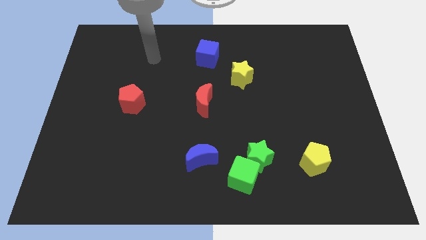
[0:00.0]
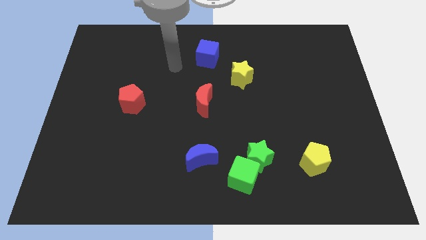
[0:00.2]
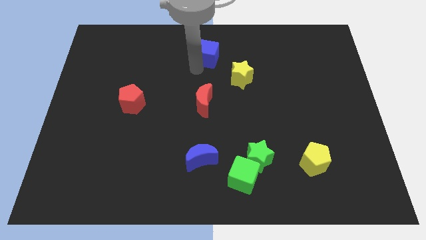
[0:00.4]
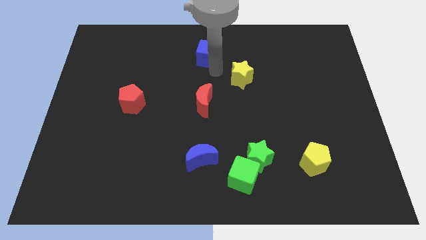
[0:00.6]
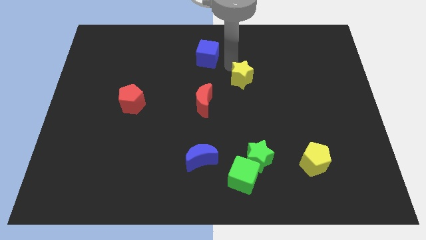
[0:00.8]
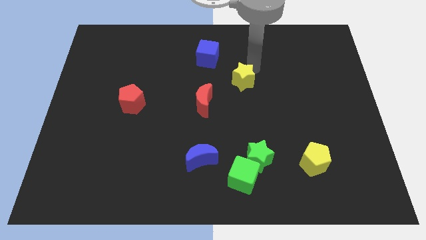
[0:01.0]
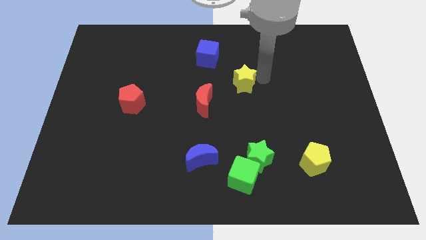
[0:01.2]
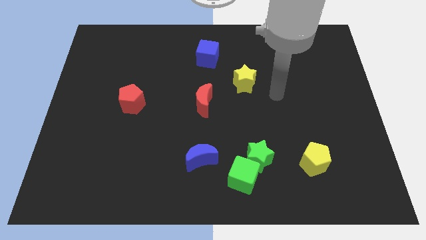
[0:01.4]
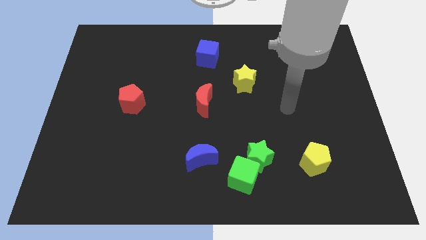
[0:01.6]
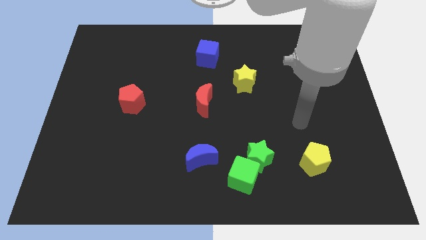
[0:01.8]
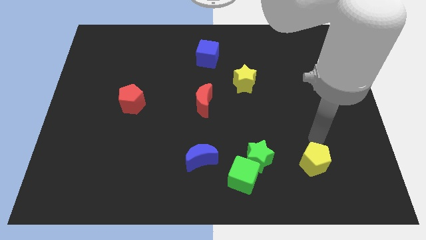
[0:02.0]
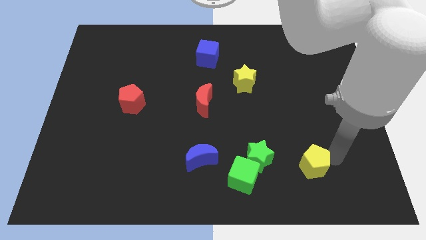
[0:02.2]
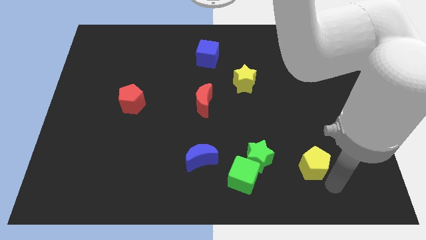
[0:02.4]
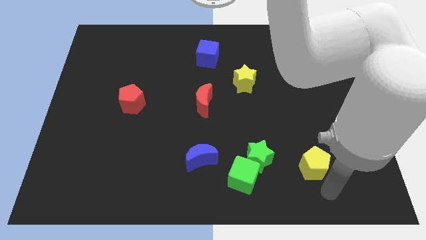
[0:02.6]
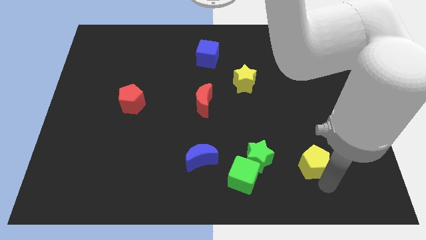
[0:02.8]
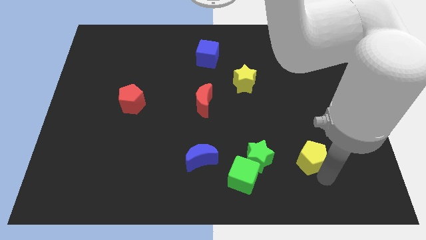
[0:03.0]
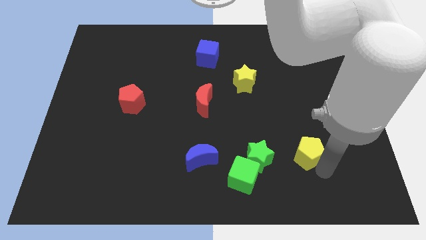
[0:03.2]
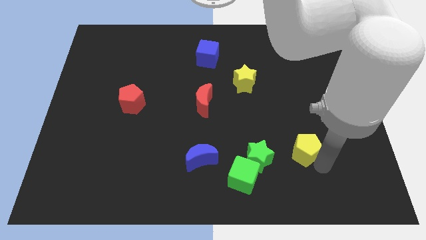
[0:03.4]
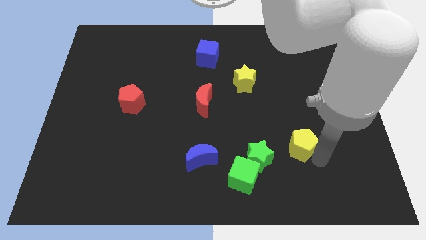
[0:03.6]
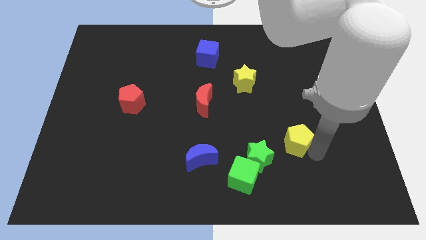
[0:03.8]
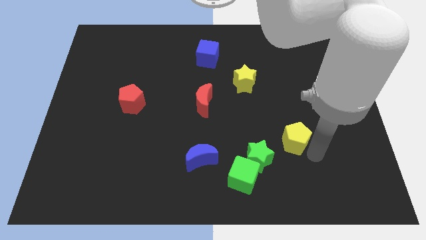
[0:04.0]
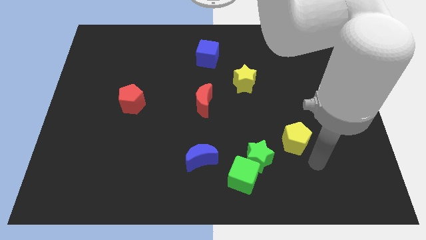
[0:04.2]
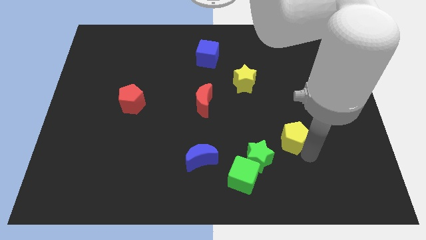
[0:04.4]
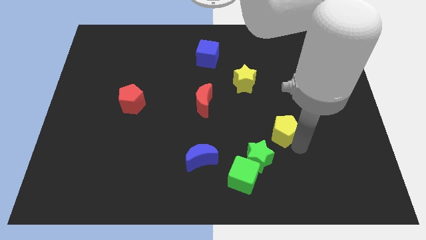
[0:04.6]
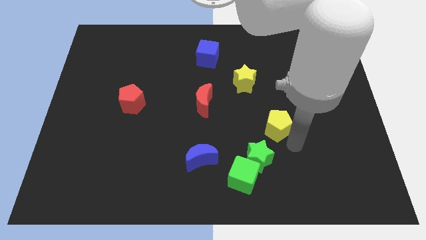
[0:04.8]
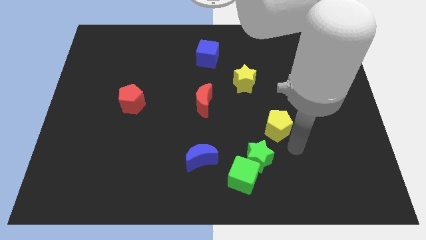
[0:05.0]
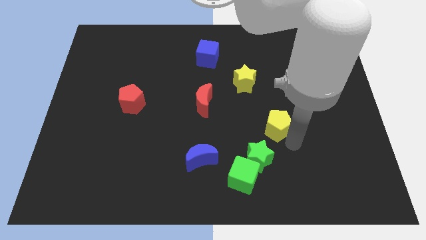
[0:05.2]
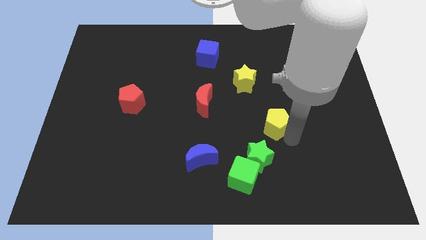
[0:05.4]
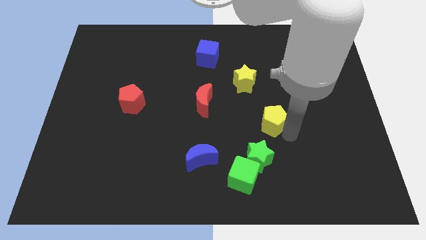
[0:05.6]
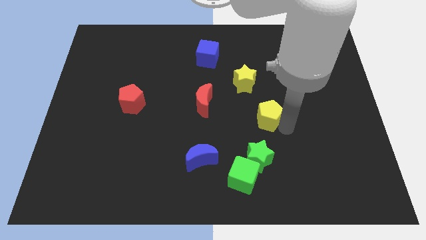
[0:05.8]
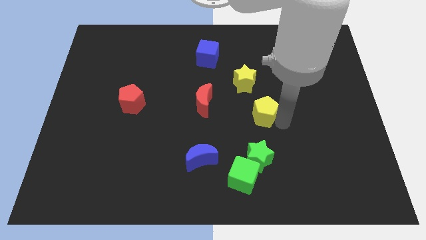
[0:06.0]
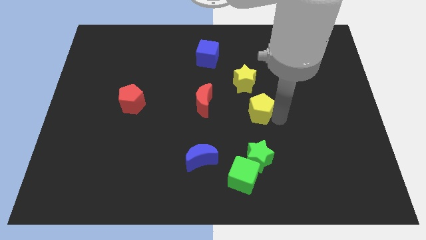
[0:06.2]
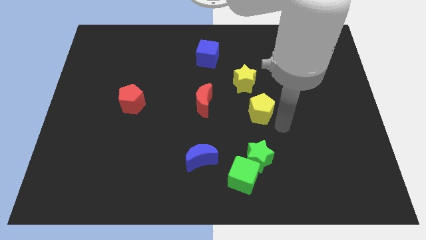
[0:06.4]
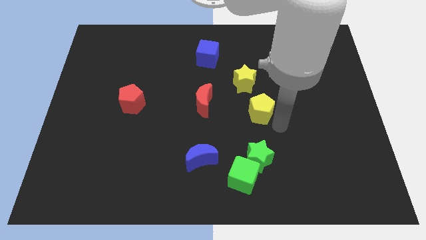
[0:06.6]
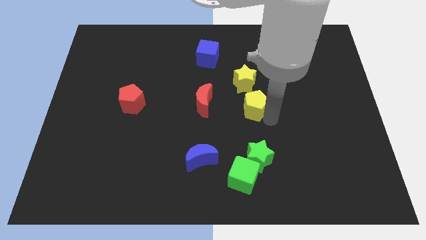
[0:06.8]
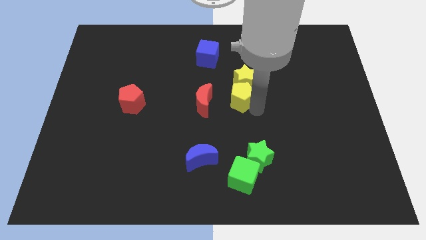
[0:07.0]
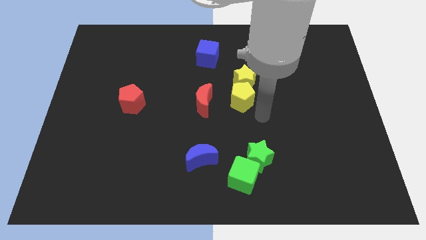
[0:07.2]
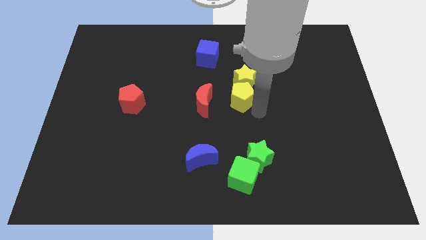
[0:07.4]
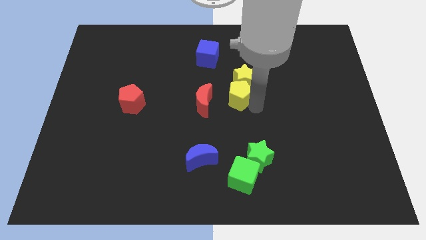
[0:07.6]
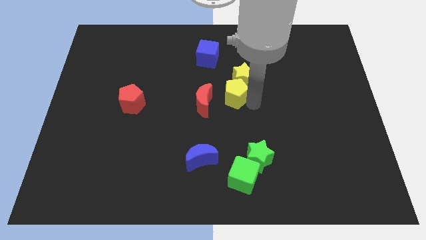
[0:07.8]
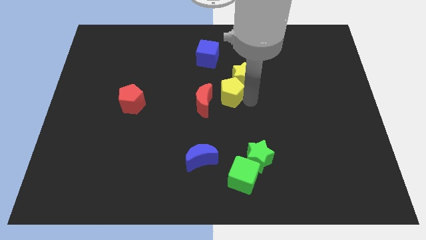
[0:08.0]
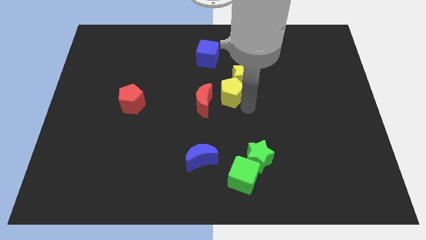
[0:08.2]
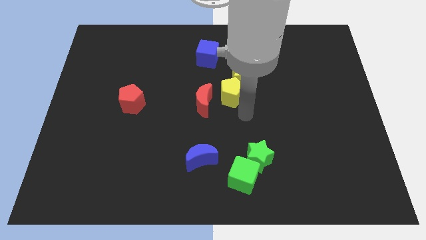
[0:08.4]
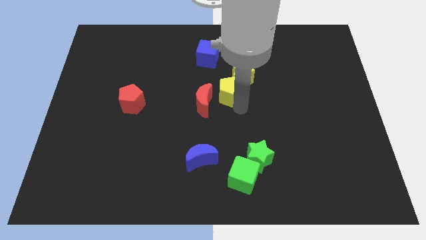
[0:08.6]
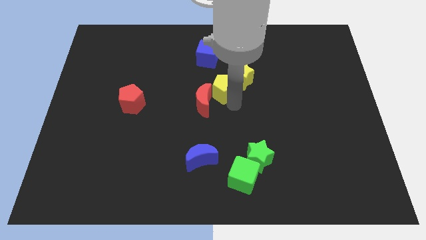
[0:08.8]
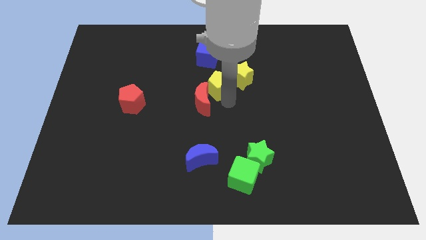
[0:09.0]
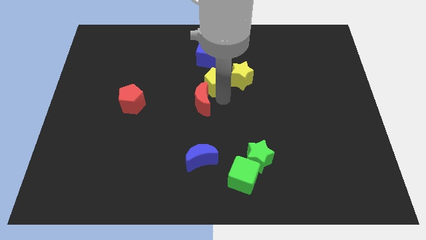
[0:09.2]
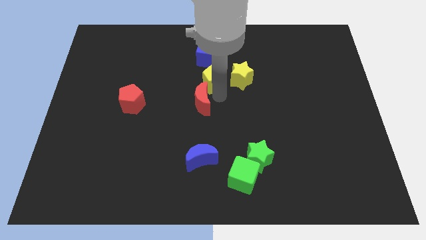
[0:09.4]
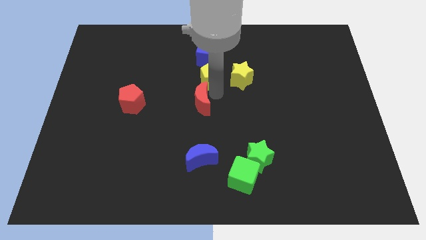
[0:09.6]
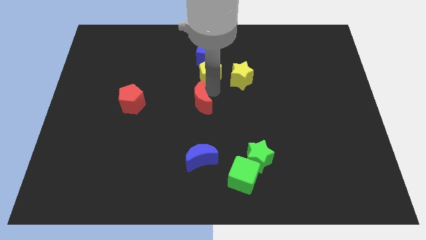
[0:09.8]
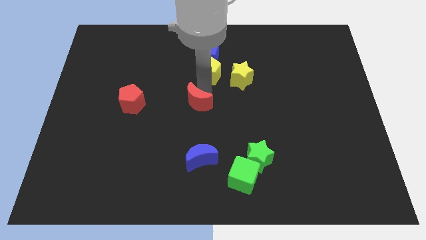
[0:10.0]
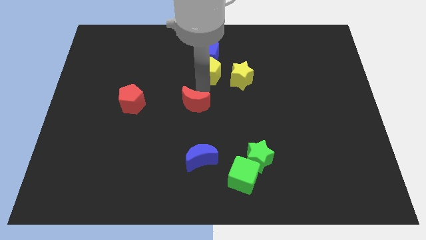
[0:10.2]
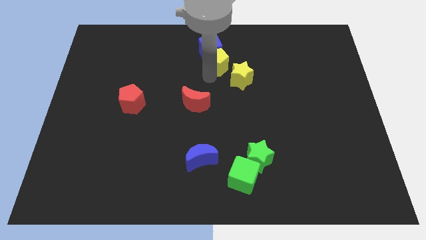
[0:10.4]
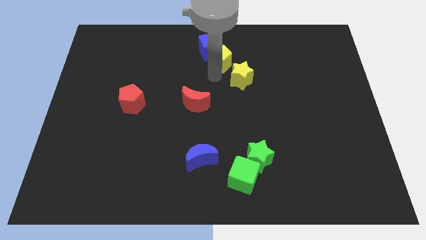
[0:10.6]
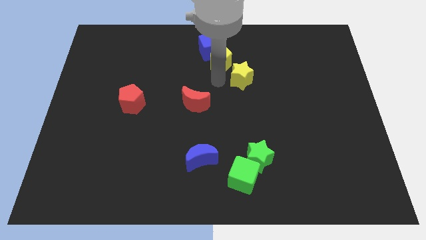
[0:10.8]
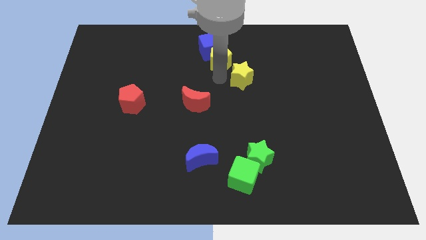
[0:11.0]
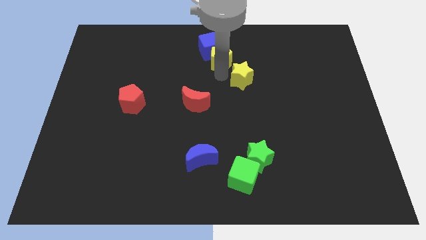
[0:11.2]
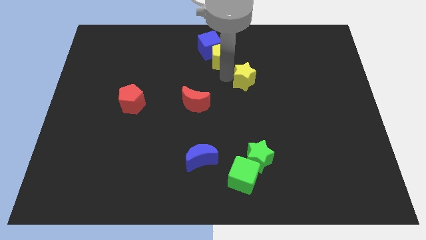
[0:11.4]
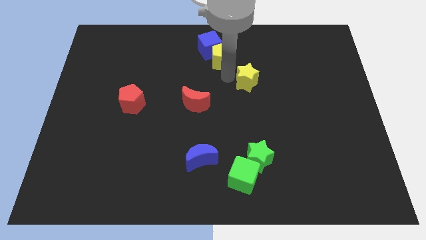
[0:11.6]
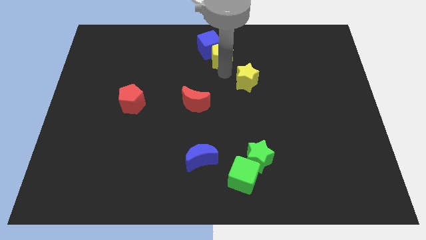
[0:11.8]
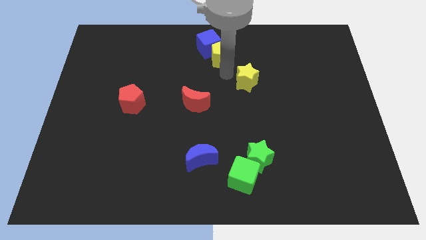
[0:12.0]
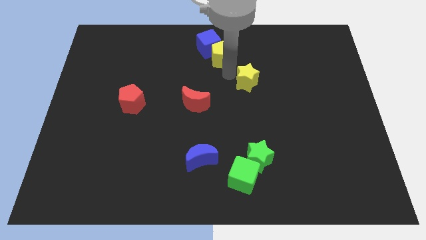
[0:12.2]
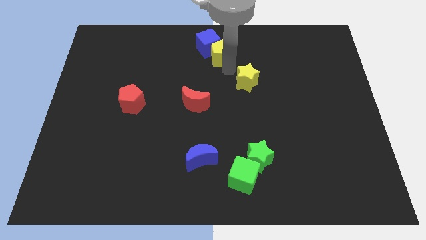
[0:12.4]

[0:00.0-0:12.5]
put the yellow pentagon to the top

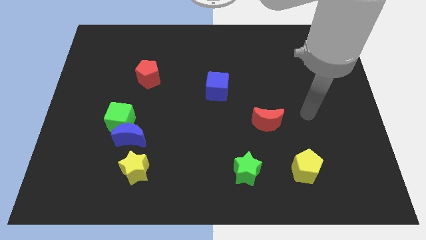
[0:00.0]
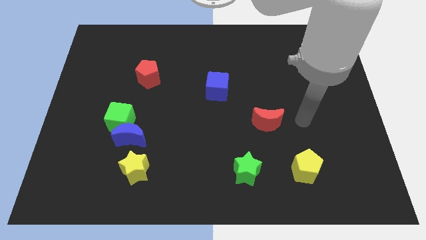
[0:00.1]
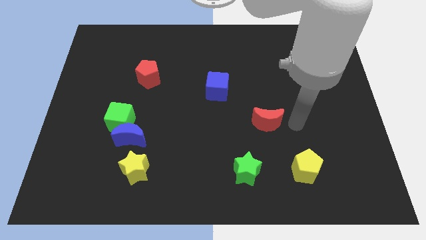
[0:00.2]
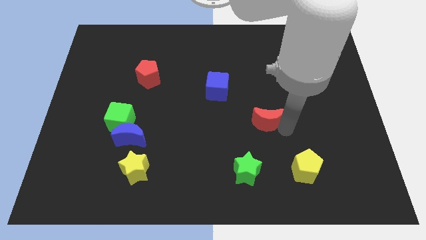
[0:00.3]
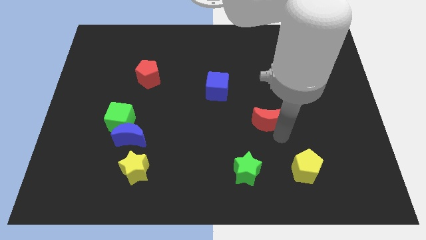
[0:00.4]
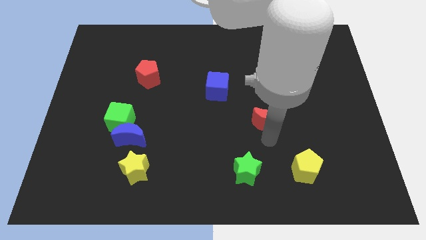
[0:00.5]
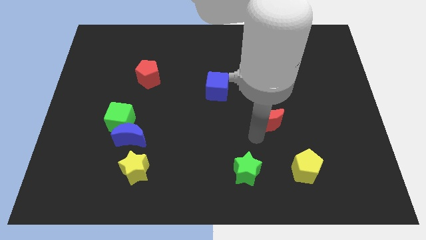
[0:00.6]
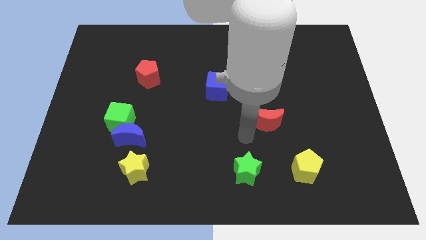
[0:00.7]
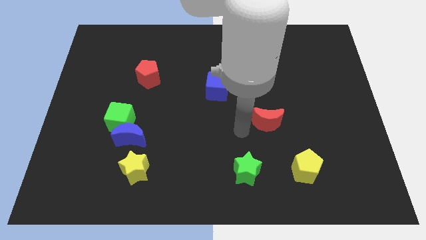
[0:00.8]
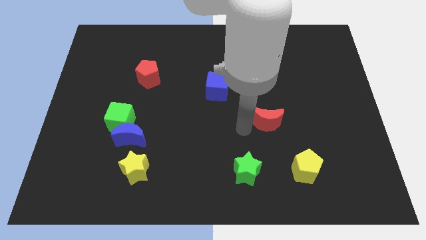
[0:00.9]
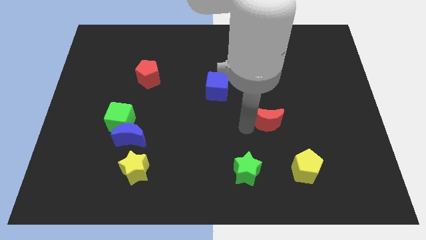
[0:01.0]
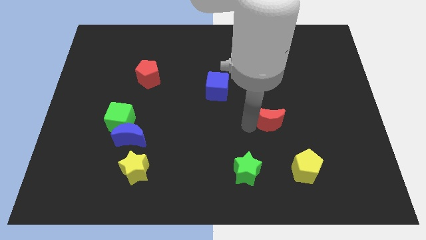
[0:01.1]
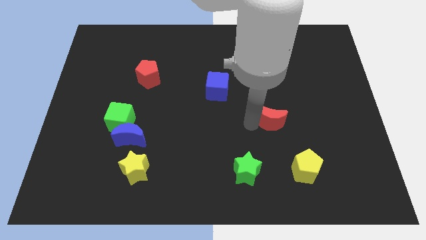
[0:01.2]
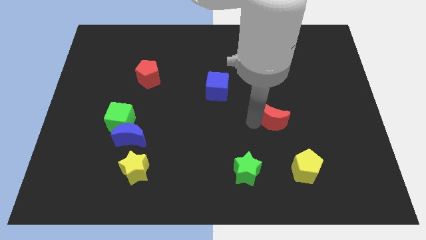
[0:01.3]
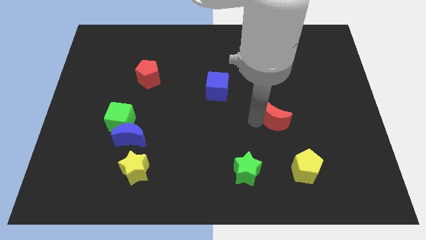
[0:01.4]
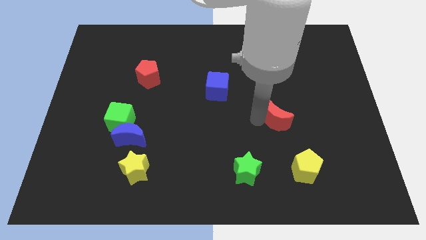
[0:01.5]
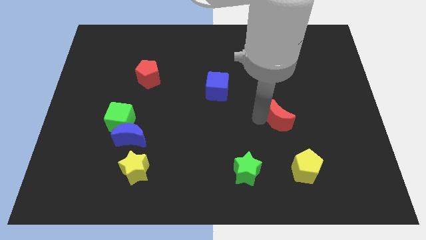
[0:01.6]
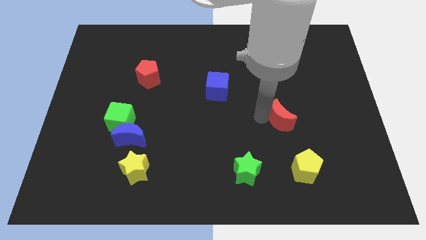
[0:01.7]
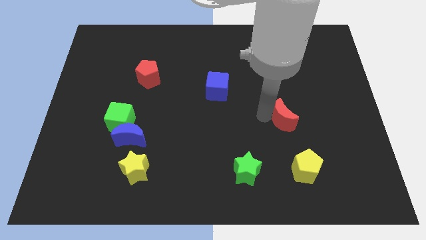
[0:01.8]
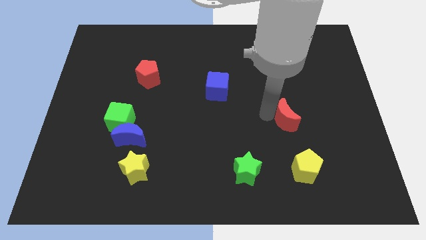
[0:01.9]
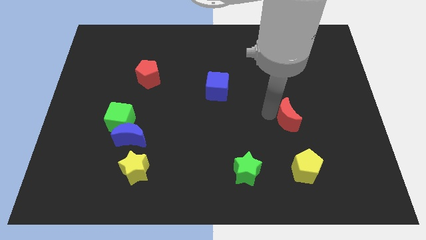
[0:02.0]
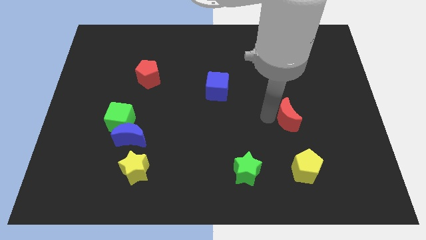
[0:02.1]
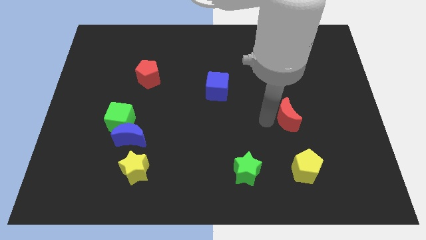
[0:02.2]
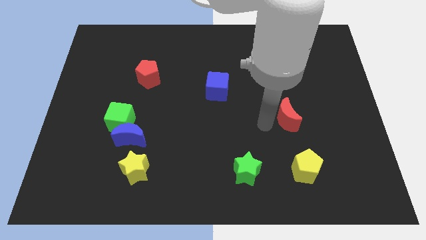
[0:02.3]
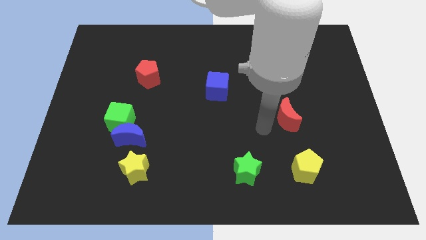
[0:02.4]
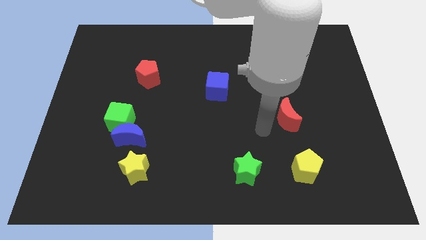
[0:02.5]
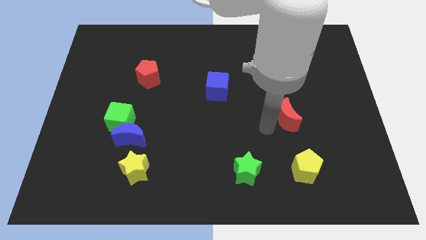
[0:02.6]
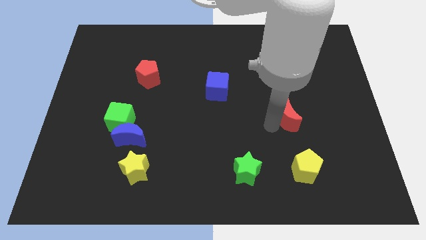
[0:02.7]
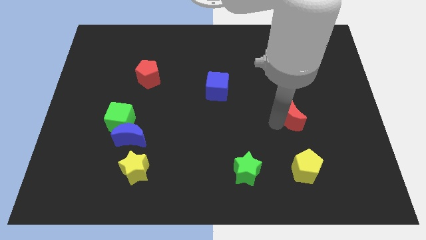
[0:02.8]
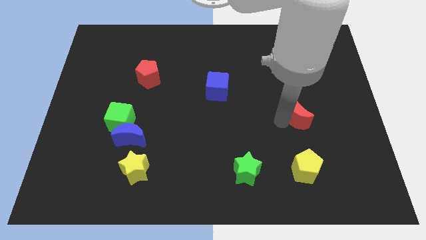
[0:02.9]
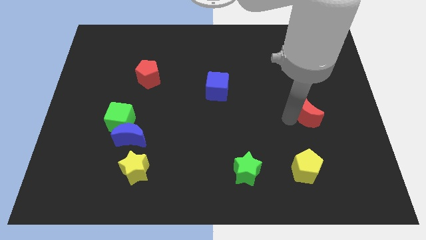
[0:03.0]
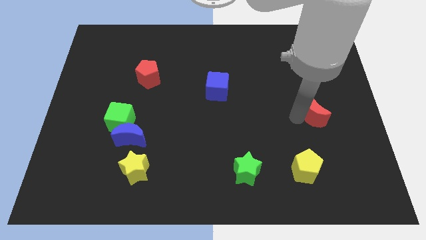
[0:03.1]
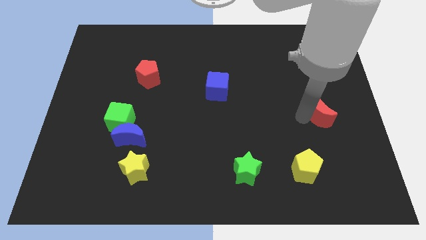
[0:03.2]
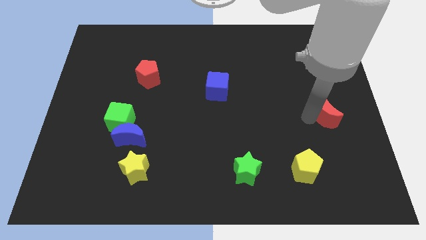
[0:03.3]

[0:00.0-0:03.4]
push the red moon to the right side
